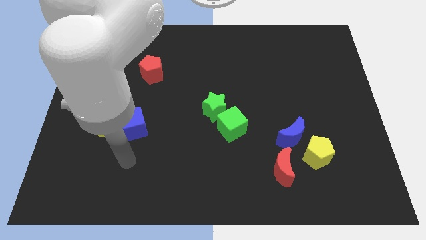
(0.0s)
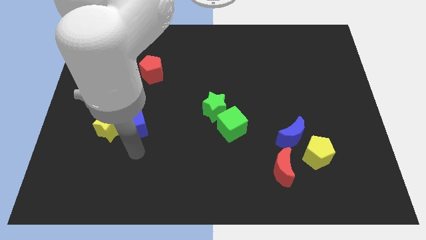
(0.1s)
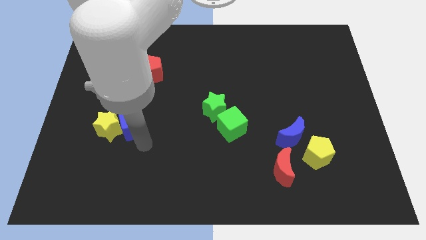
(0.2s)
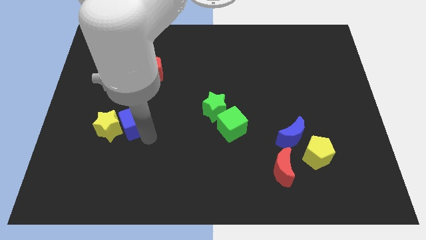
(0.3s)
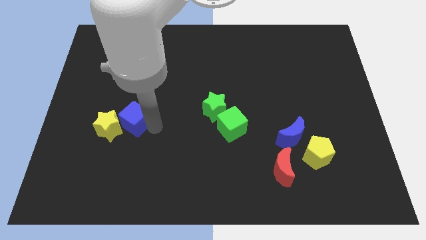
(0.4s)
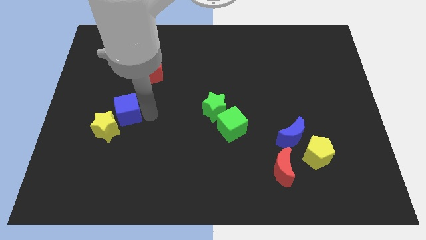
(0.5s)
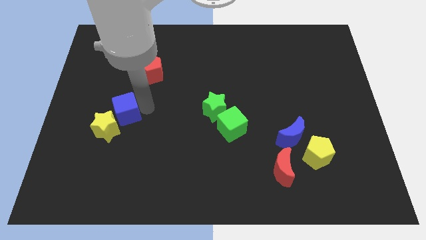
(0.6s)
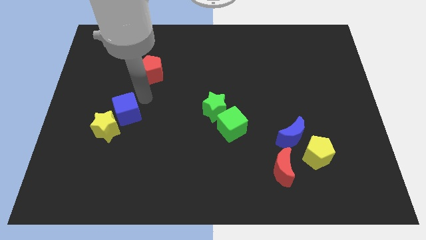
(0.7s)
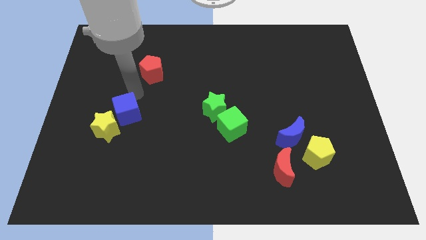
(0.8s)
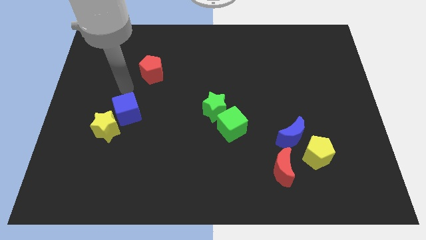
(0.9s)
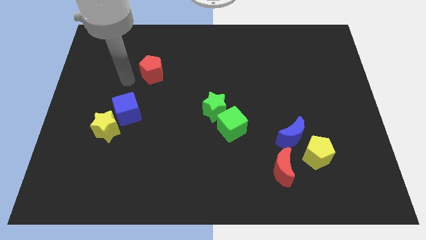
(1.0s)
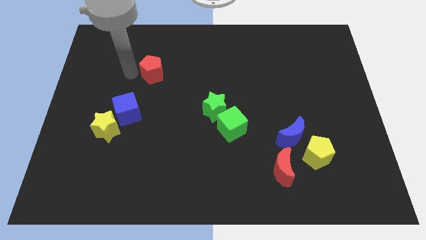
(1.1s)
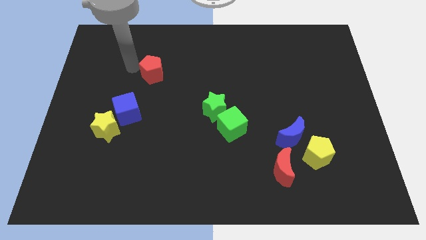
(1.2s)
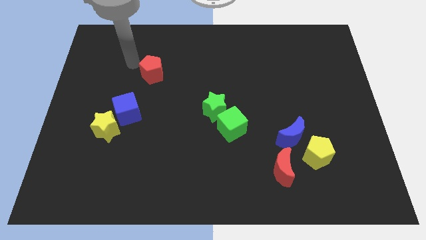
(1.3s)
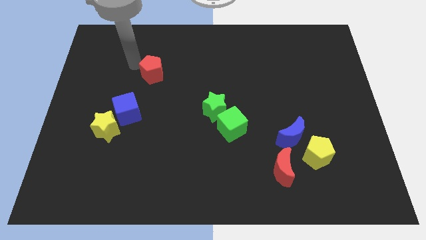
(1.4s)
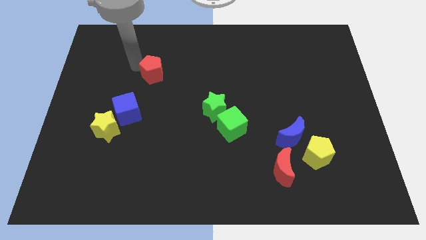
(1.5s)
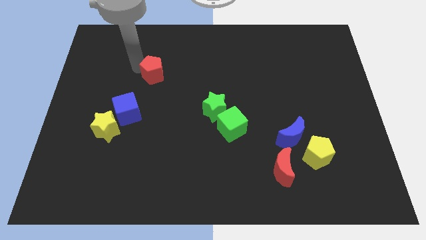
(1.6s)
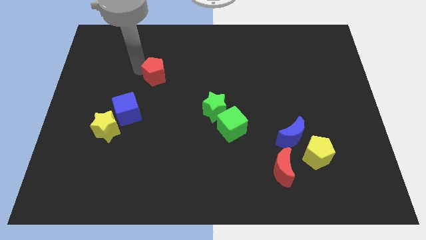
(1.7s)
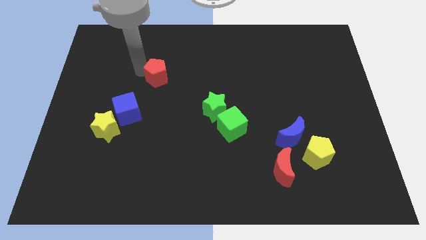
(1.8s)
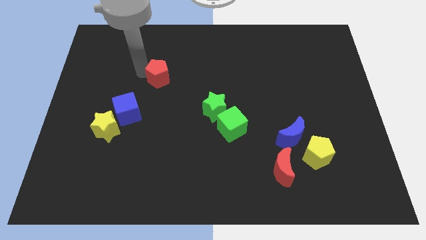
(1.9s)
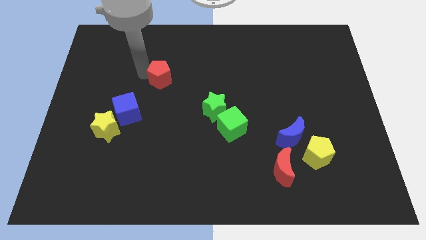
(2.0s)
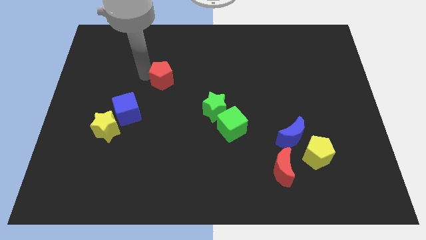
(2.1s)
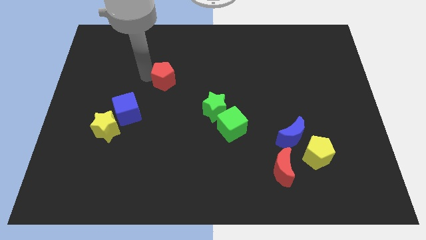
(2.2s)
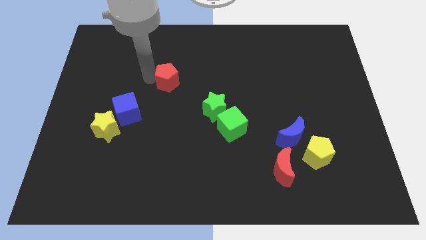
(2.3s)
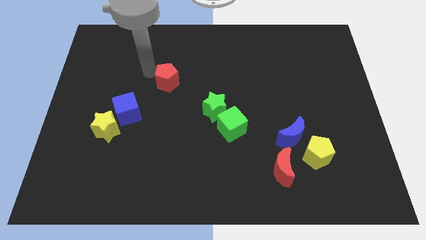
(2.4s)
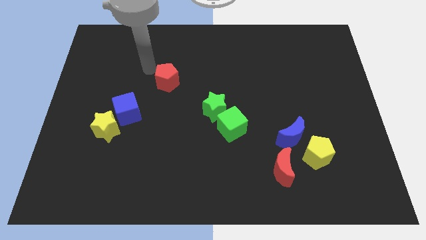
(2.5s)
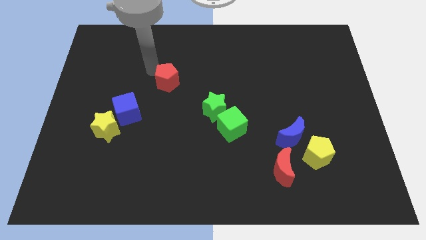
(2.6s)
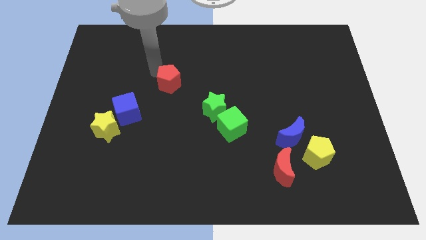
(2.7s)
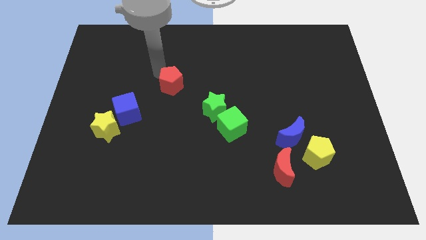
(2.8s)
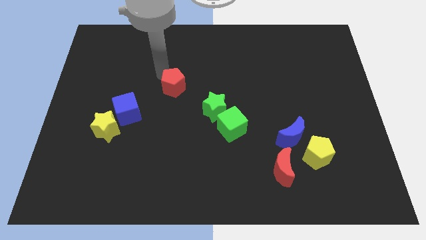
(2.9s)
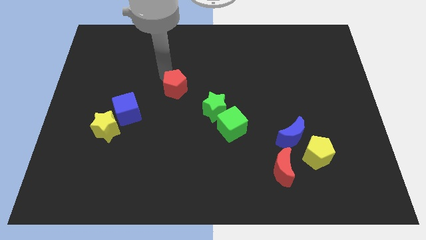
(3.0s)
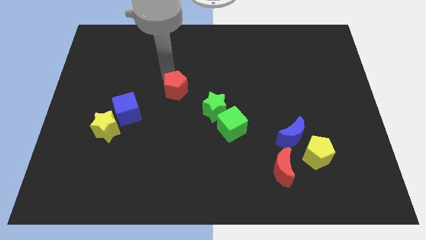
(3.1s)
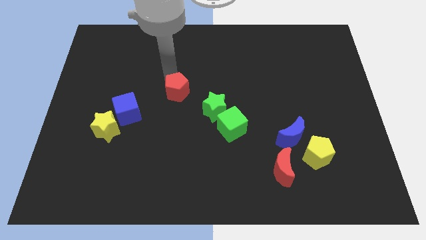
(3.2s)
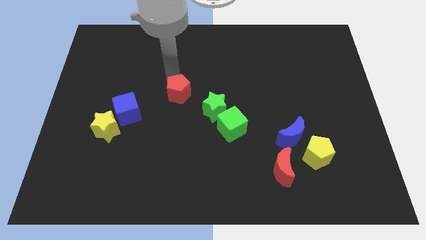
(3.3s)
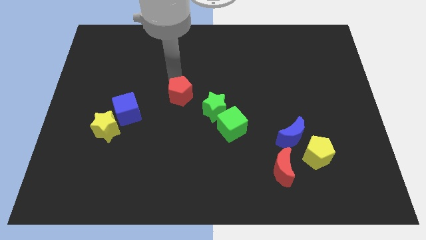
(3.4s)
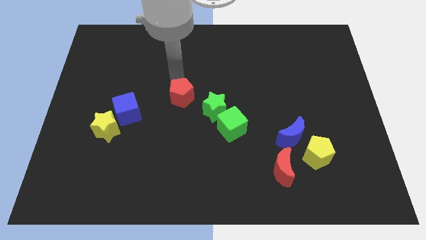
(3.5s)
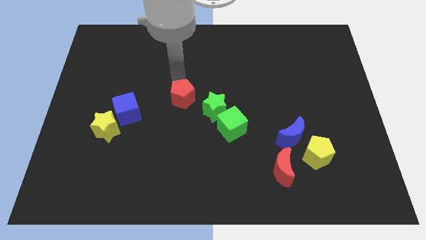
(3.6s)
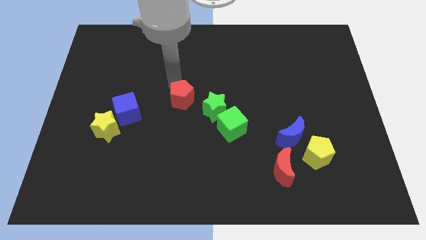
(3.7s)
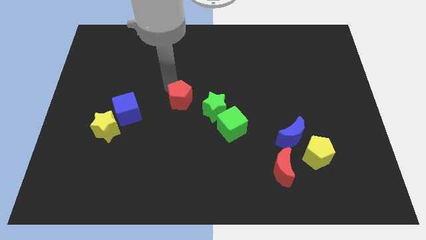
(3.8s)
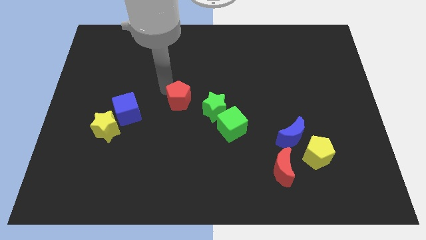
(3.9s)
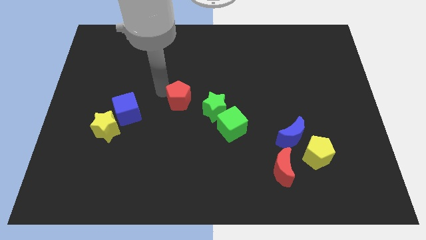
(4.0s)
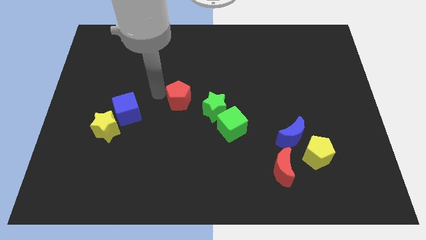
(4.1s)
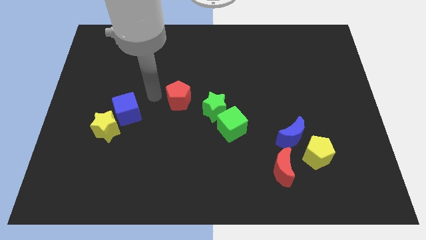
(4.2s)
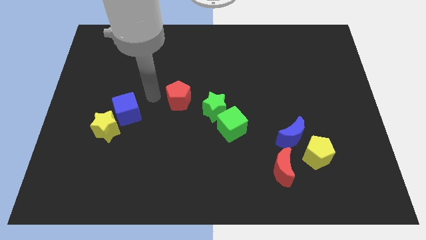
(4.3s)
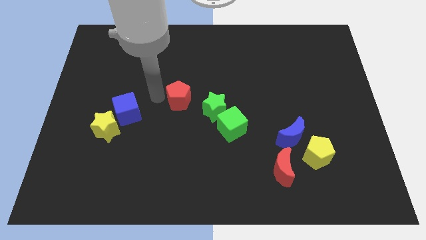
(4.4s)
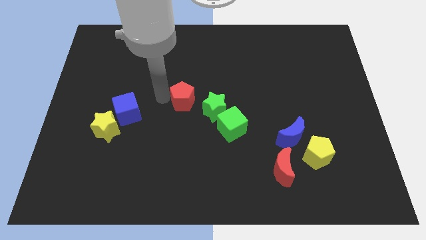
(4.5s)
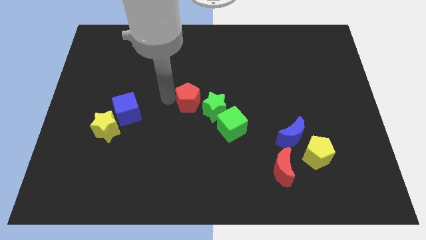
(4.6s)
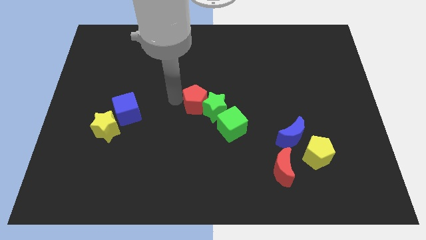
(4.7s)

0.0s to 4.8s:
slide the red pentagon towards the green star

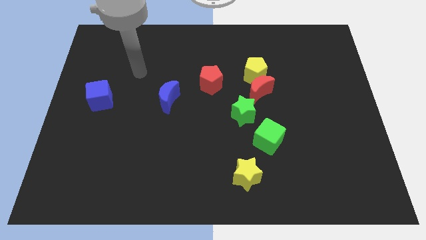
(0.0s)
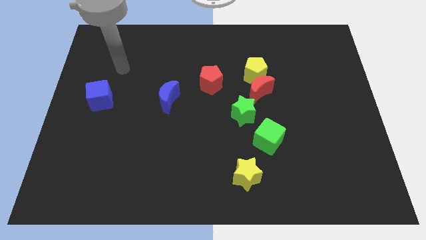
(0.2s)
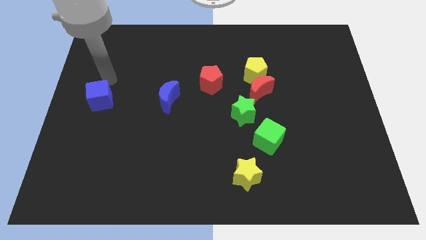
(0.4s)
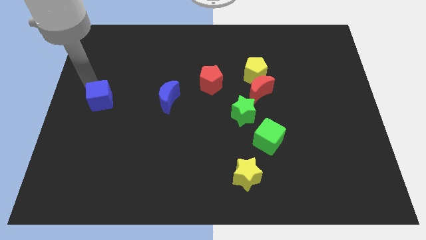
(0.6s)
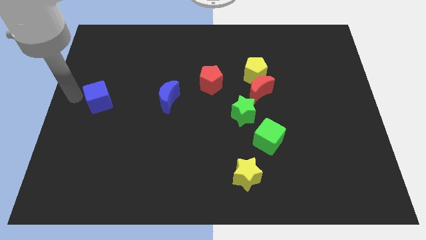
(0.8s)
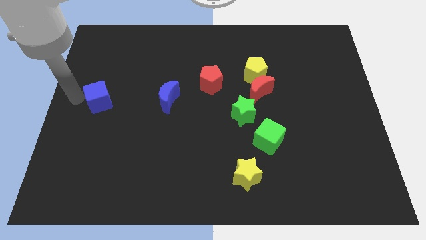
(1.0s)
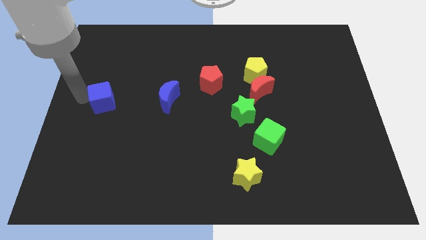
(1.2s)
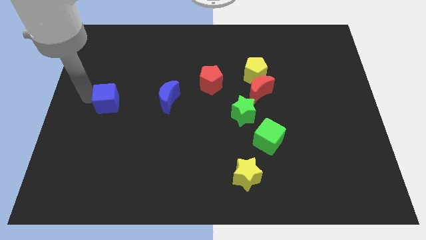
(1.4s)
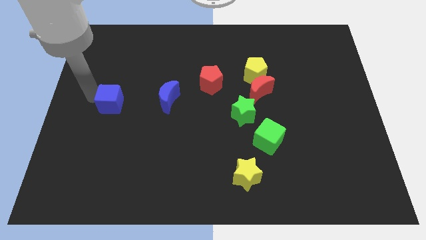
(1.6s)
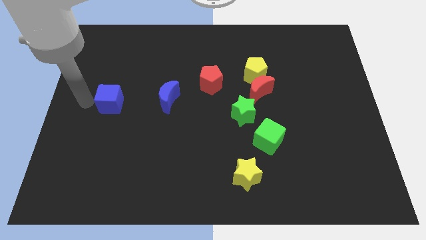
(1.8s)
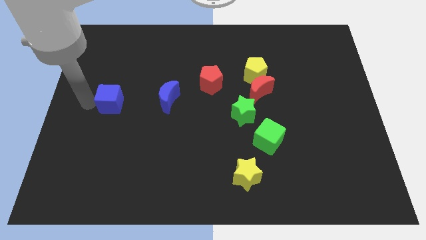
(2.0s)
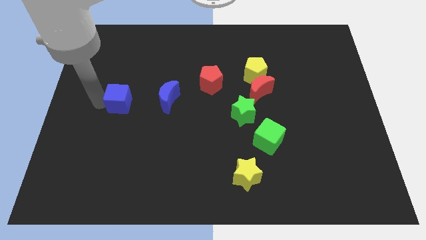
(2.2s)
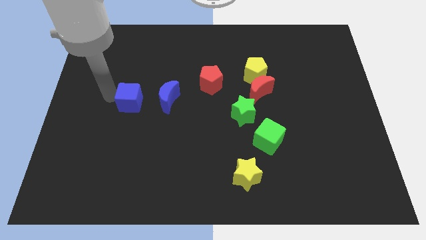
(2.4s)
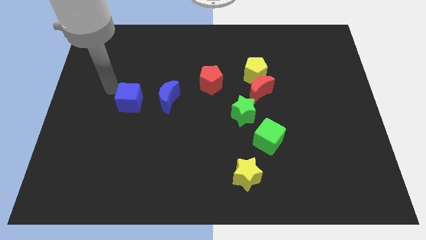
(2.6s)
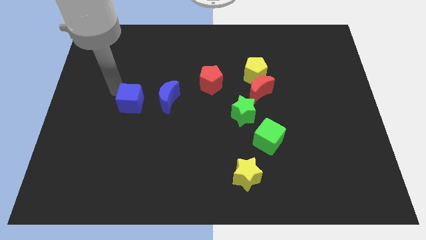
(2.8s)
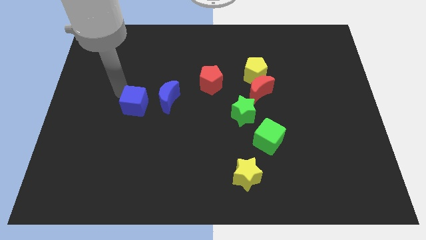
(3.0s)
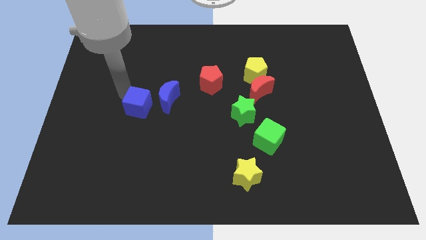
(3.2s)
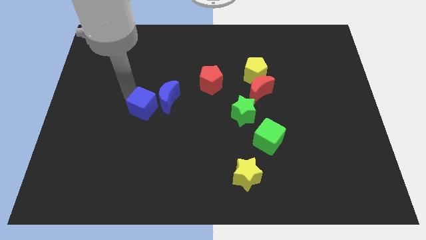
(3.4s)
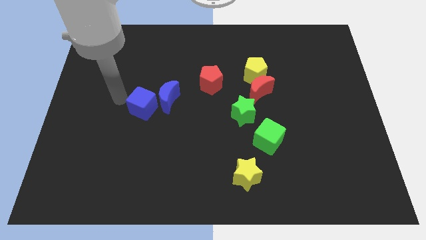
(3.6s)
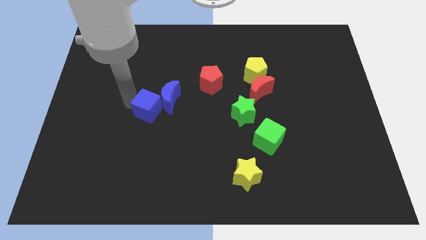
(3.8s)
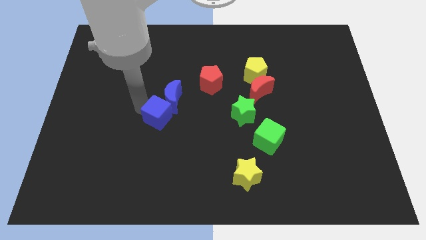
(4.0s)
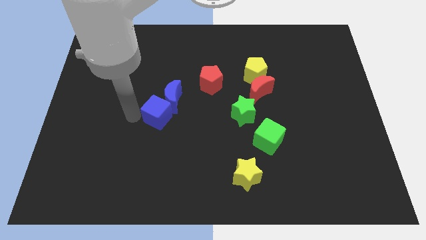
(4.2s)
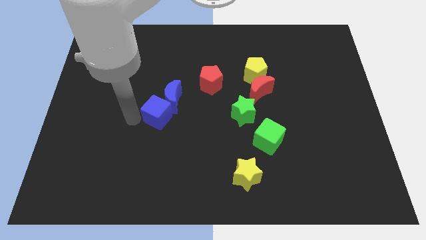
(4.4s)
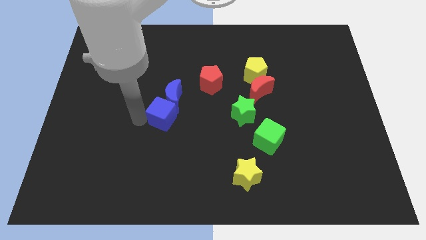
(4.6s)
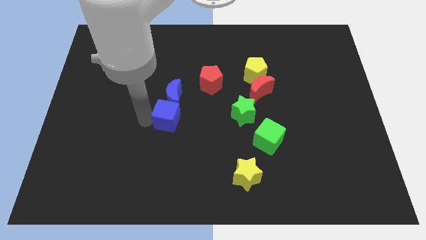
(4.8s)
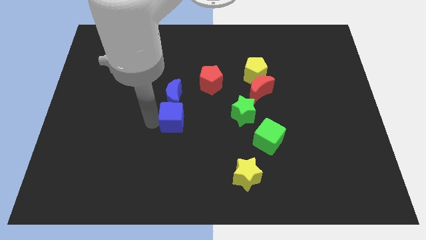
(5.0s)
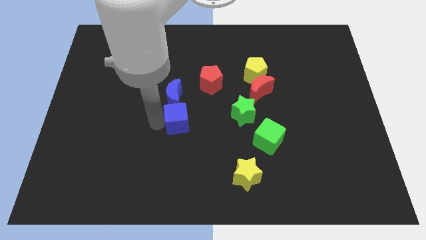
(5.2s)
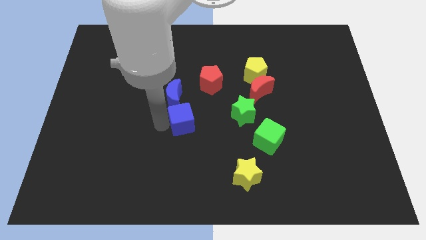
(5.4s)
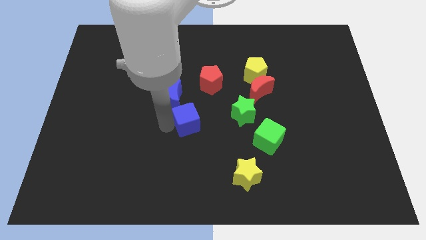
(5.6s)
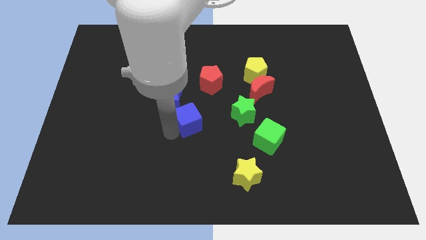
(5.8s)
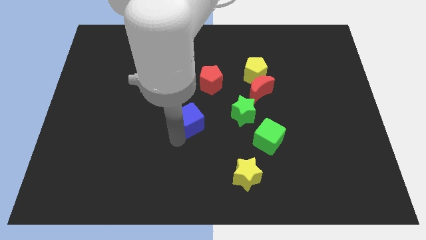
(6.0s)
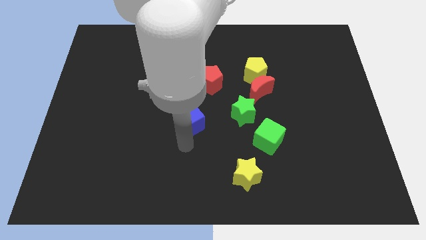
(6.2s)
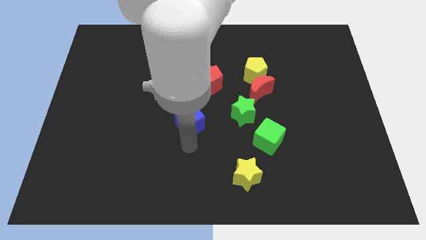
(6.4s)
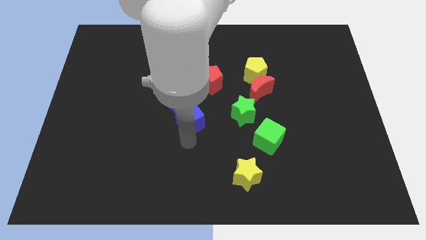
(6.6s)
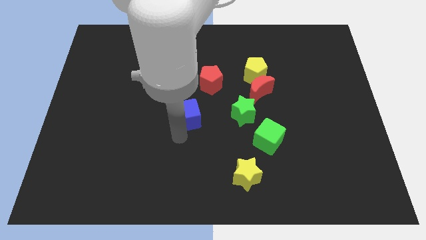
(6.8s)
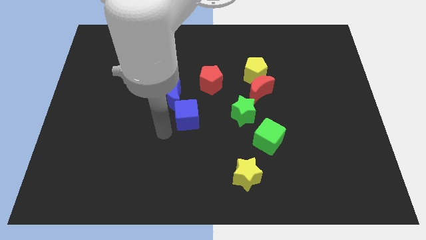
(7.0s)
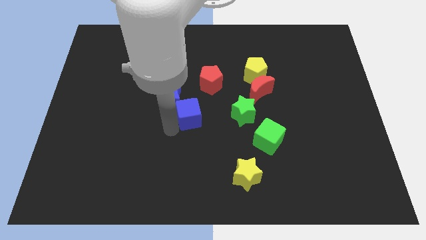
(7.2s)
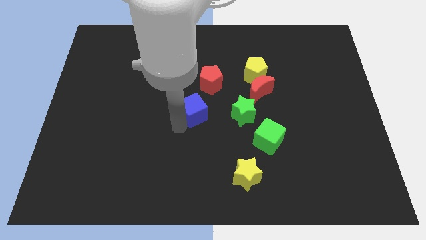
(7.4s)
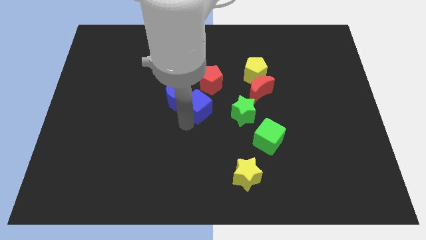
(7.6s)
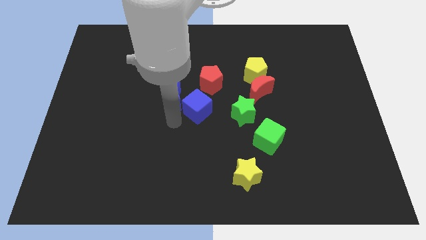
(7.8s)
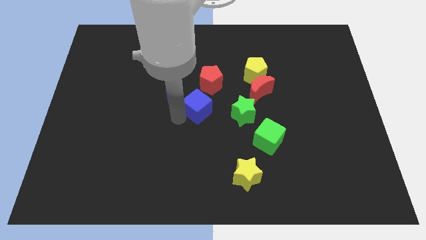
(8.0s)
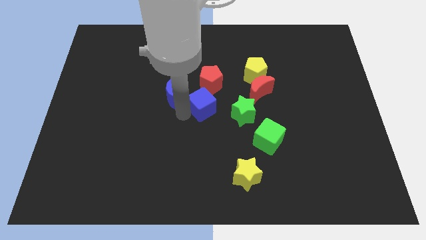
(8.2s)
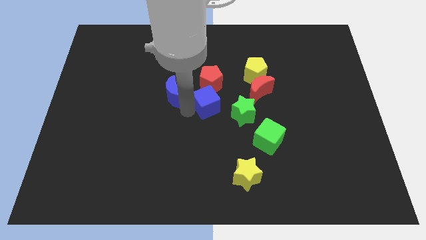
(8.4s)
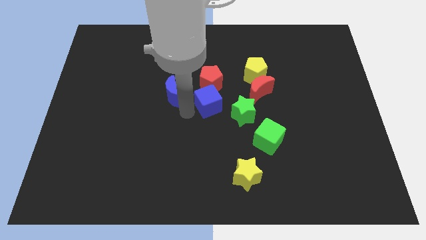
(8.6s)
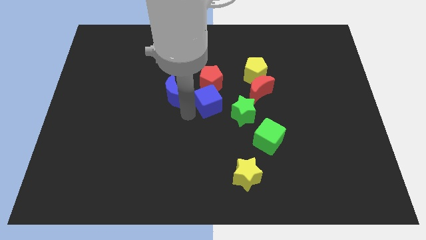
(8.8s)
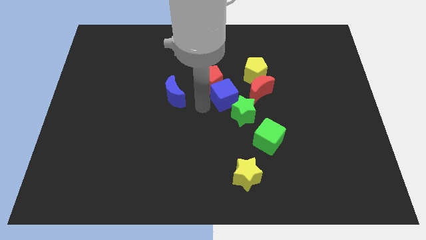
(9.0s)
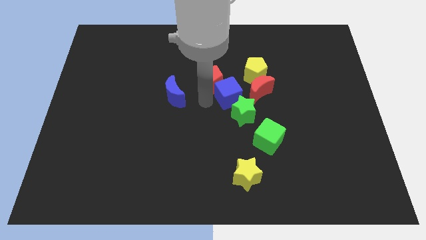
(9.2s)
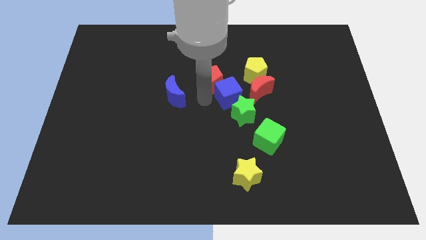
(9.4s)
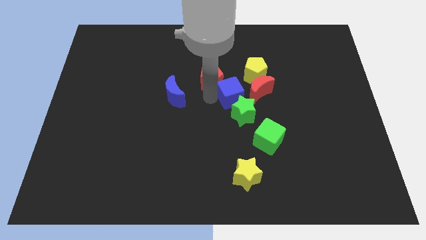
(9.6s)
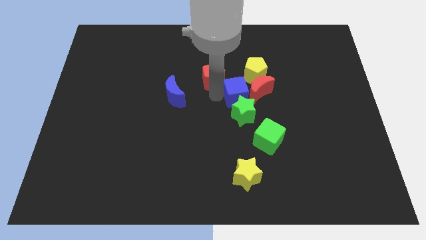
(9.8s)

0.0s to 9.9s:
slide the blue cube next to the red moon
